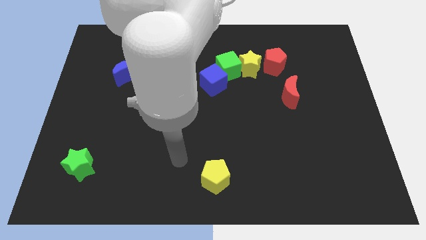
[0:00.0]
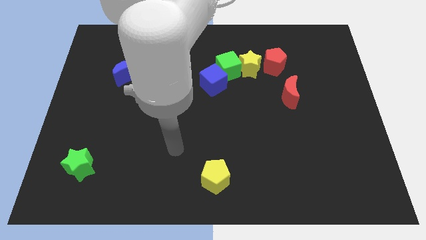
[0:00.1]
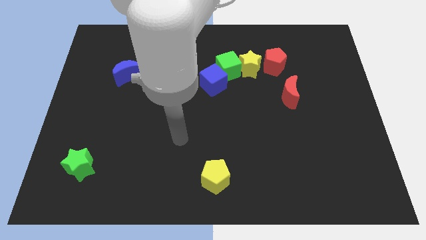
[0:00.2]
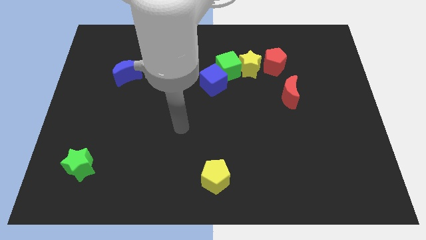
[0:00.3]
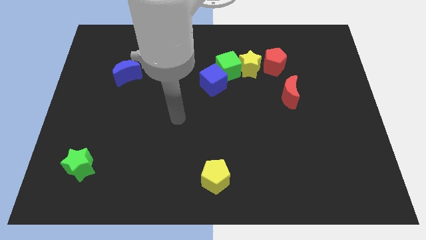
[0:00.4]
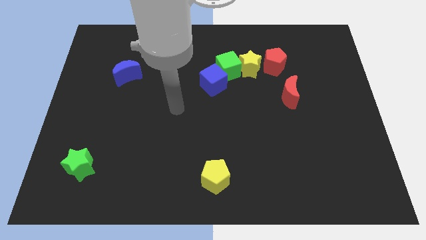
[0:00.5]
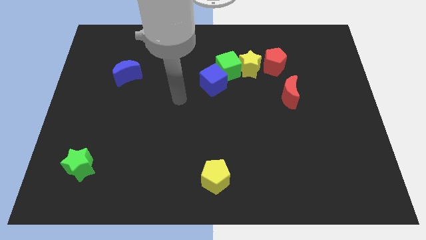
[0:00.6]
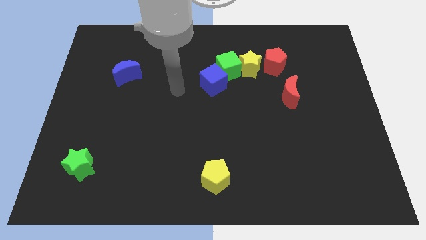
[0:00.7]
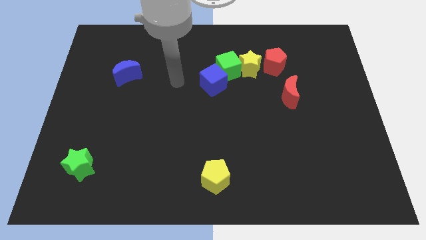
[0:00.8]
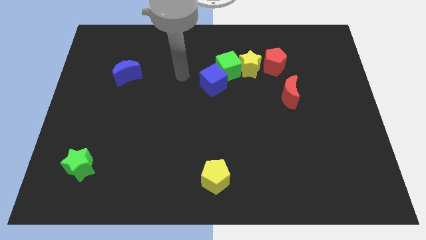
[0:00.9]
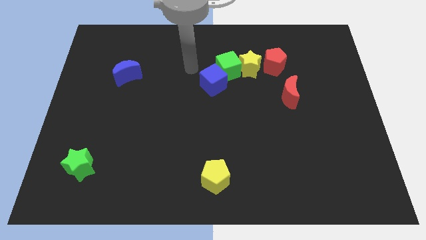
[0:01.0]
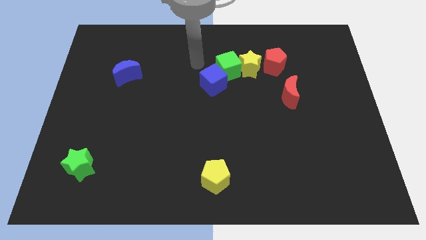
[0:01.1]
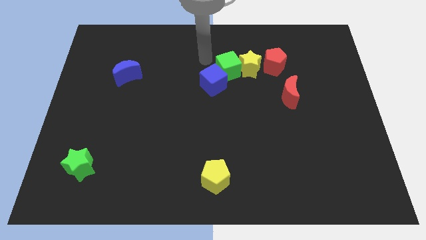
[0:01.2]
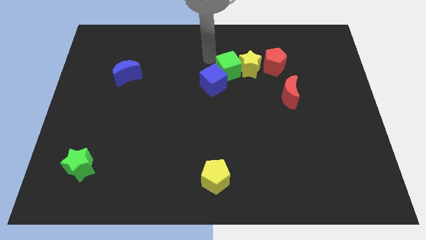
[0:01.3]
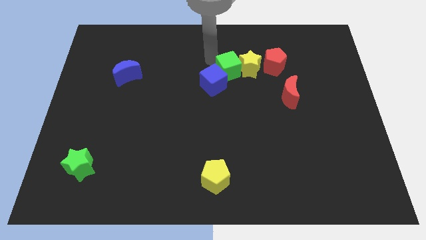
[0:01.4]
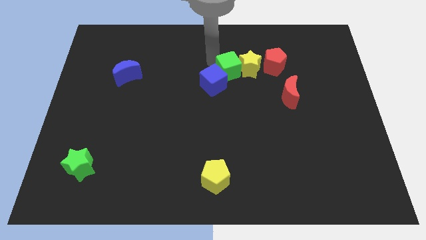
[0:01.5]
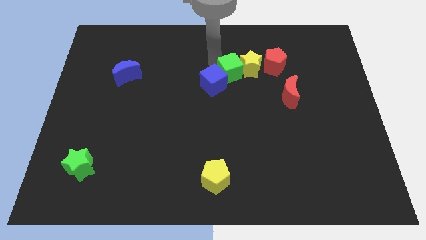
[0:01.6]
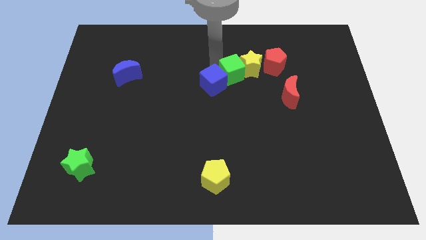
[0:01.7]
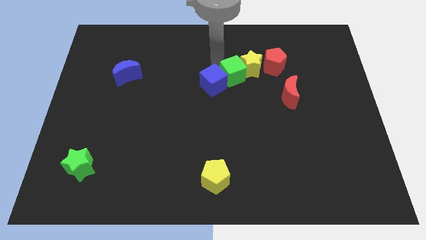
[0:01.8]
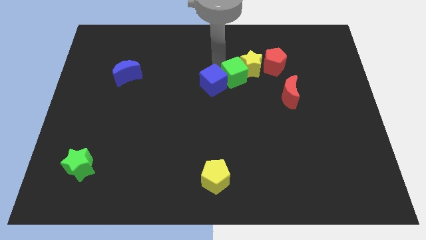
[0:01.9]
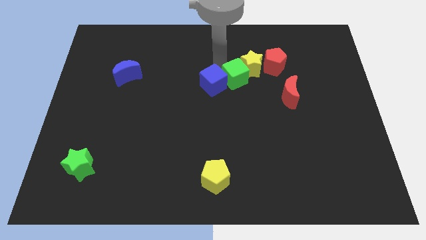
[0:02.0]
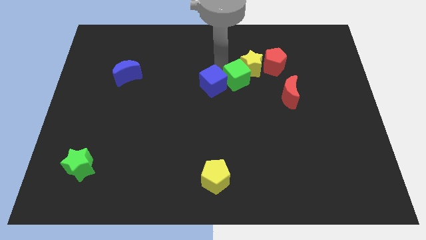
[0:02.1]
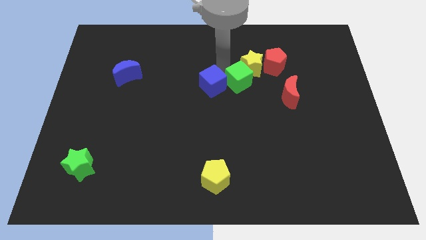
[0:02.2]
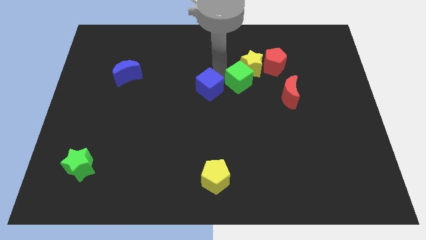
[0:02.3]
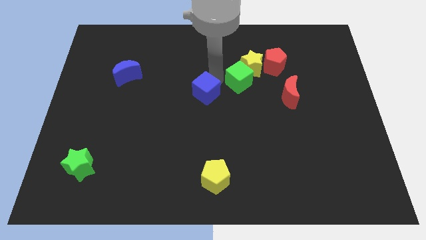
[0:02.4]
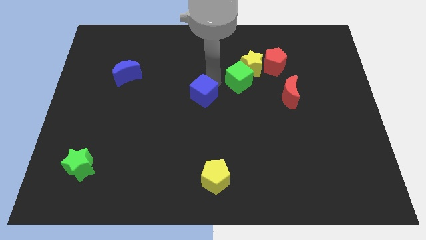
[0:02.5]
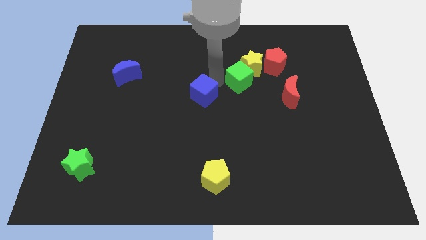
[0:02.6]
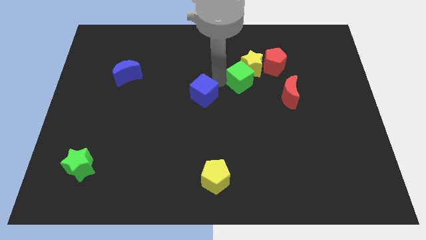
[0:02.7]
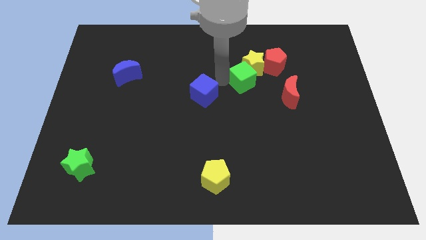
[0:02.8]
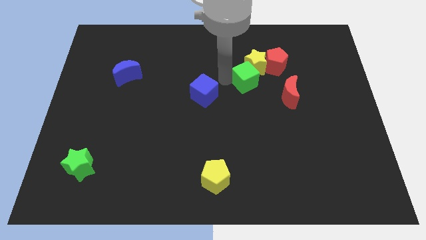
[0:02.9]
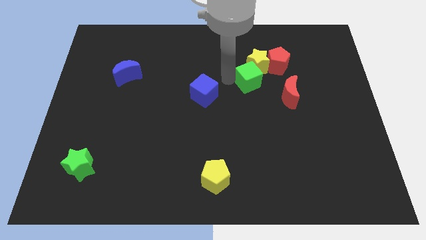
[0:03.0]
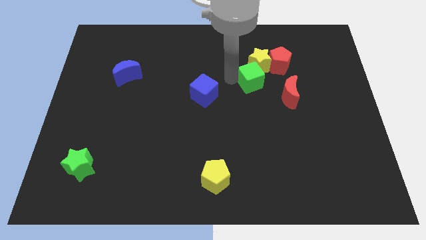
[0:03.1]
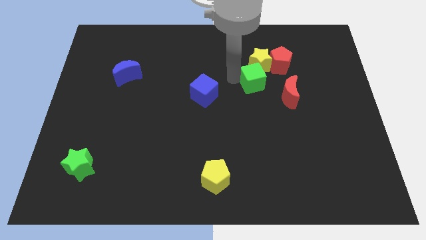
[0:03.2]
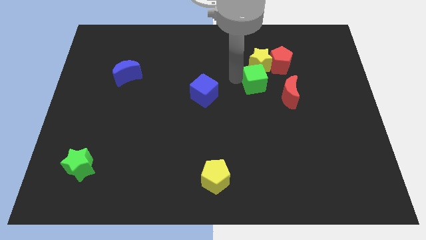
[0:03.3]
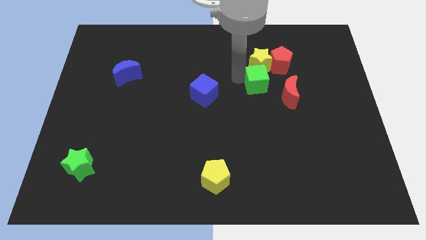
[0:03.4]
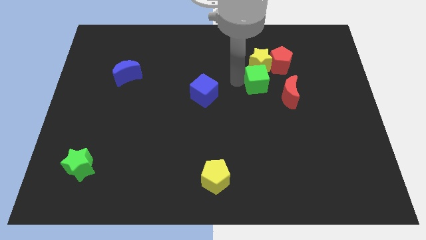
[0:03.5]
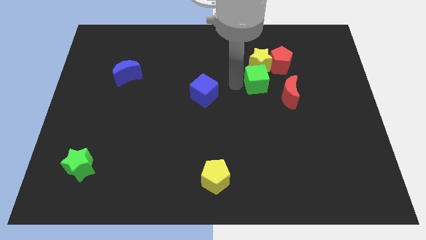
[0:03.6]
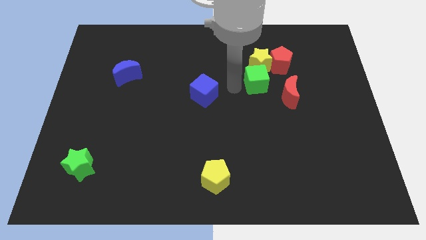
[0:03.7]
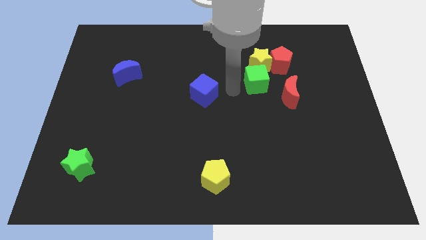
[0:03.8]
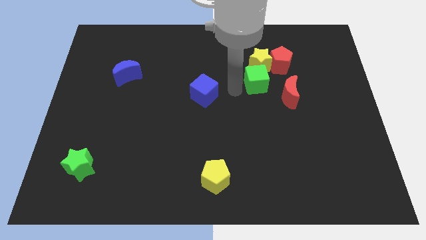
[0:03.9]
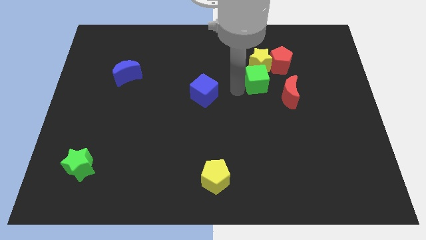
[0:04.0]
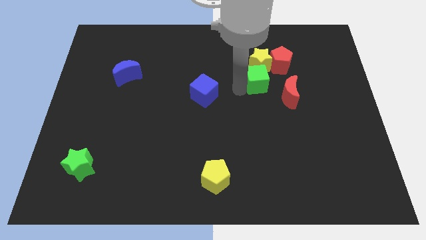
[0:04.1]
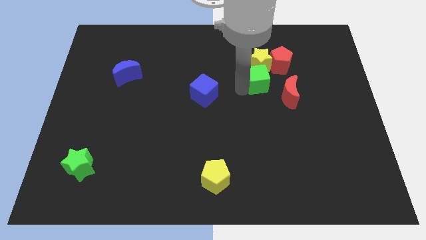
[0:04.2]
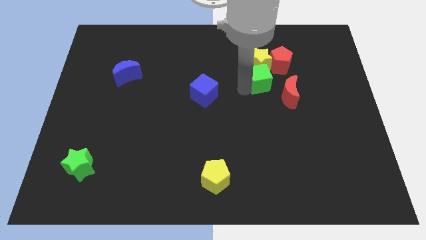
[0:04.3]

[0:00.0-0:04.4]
slightly move the green cube to the right

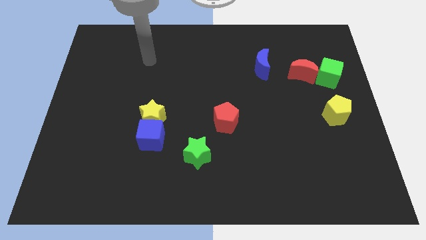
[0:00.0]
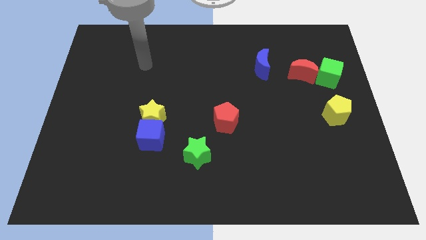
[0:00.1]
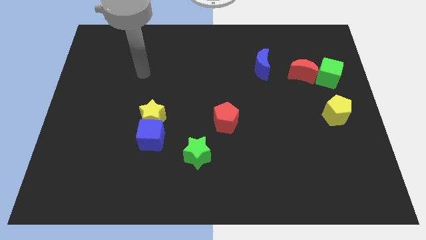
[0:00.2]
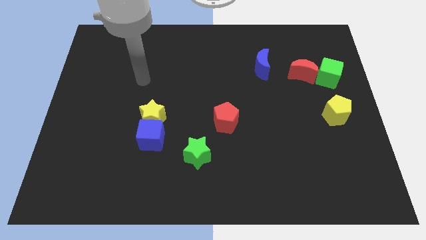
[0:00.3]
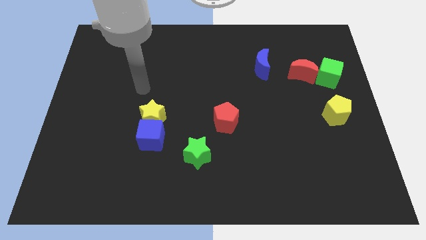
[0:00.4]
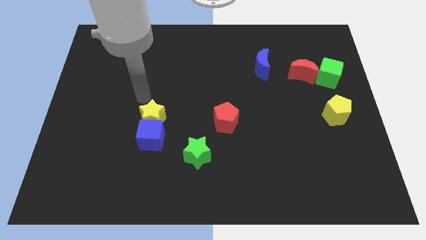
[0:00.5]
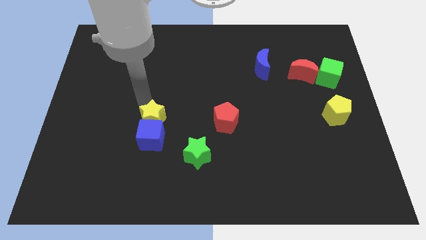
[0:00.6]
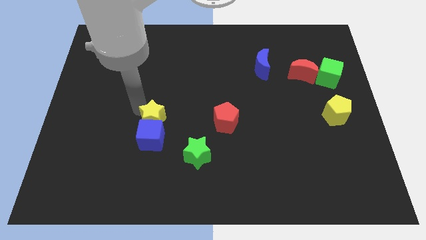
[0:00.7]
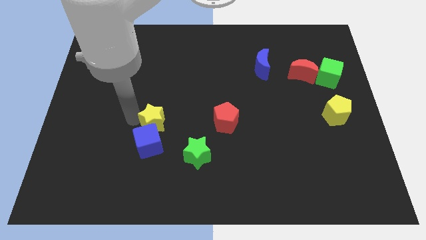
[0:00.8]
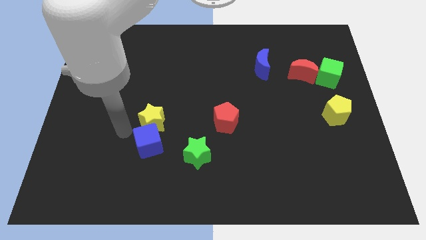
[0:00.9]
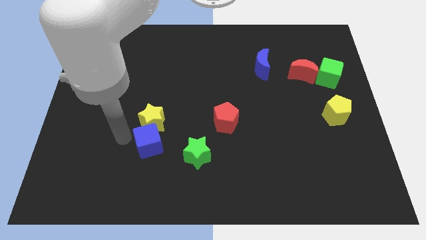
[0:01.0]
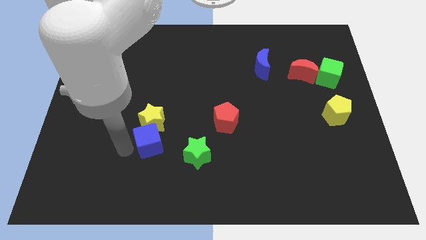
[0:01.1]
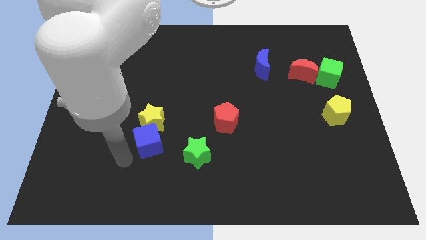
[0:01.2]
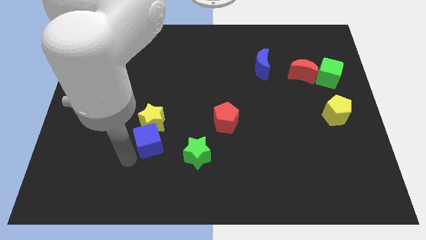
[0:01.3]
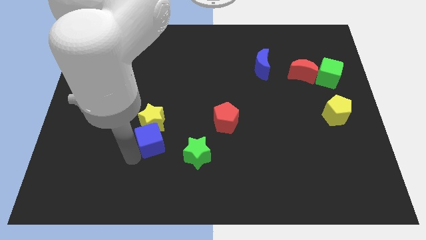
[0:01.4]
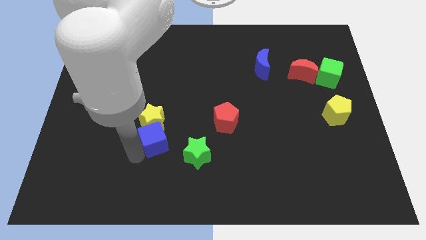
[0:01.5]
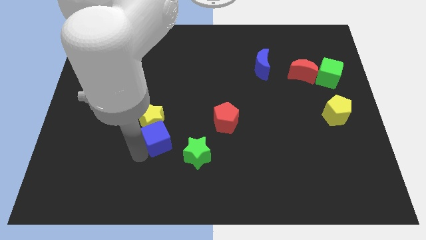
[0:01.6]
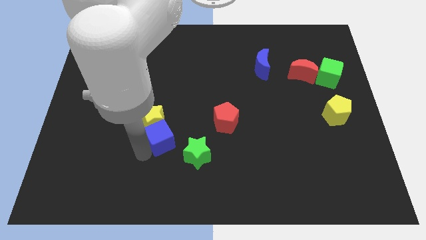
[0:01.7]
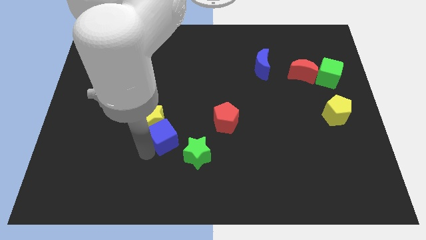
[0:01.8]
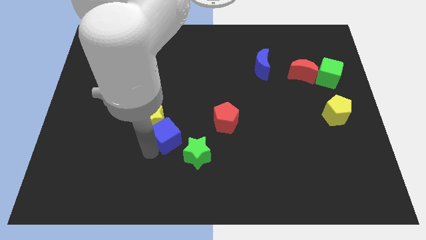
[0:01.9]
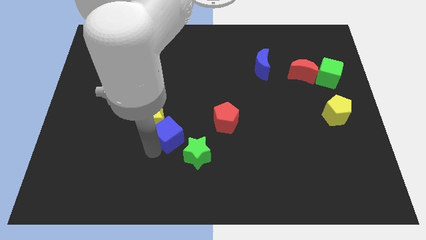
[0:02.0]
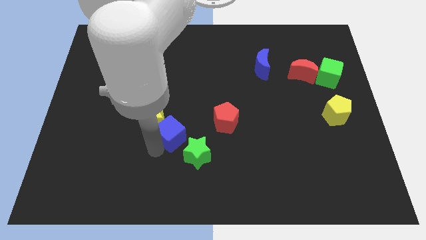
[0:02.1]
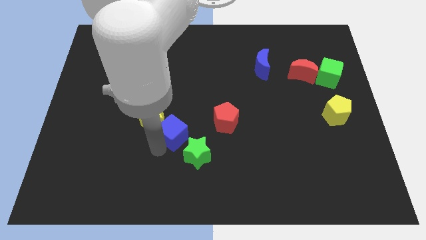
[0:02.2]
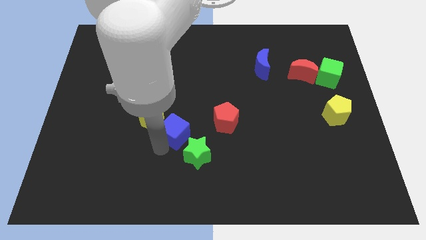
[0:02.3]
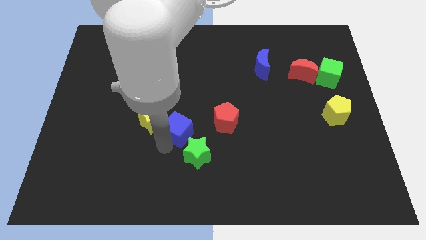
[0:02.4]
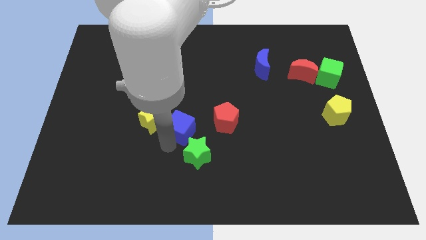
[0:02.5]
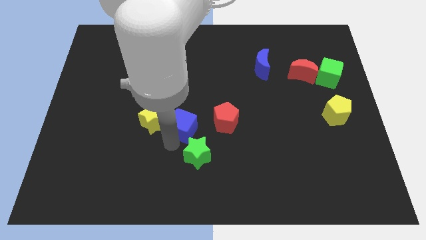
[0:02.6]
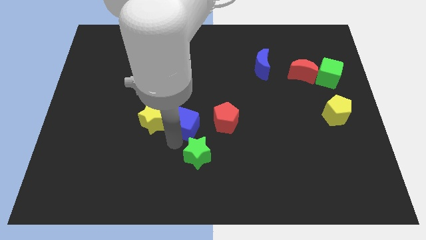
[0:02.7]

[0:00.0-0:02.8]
push the blue cube somewhat upwards and to the right

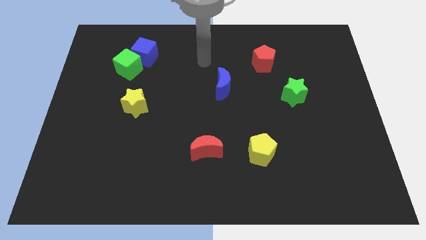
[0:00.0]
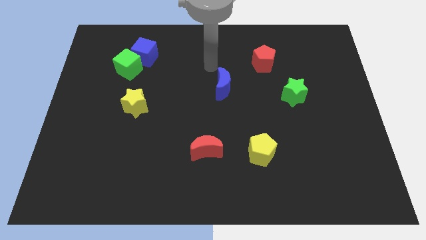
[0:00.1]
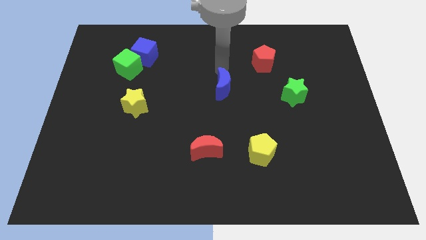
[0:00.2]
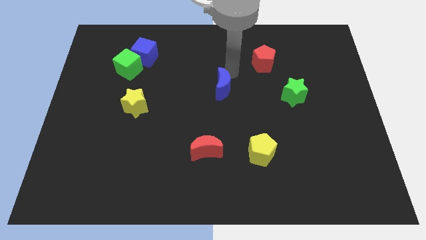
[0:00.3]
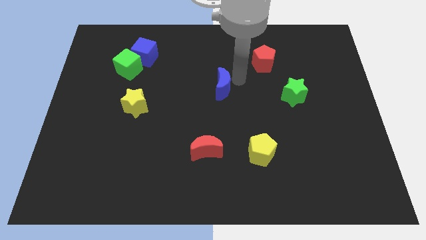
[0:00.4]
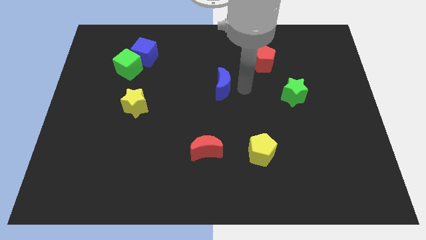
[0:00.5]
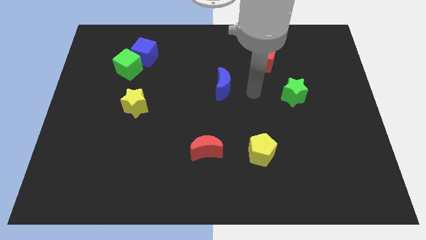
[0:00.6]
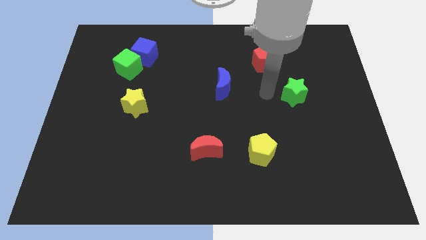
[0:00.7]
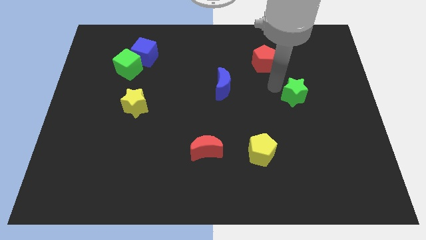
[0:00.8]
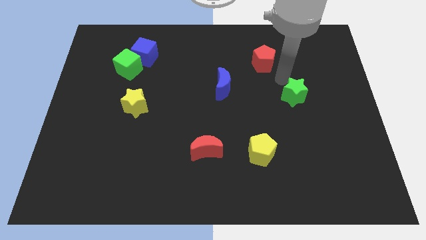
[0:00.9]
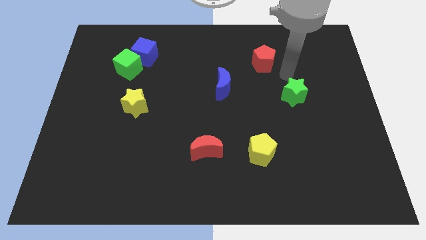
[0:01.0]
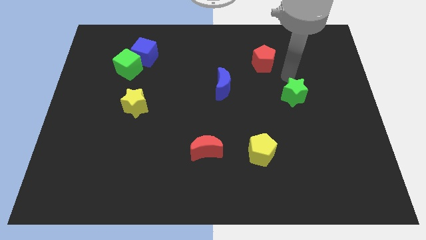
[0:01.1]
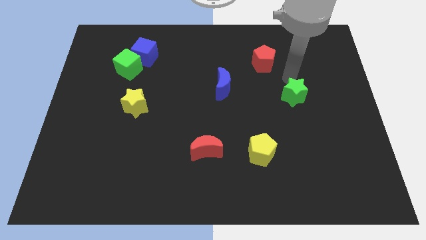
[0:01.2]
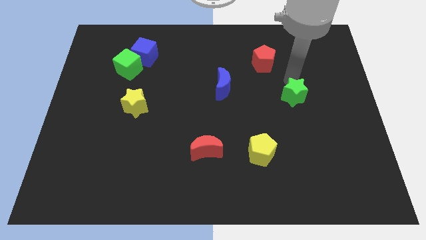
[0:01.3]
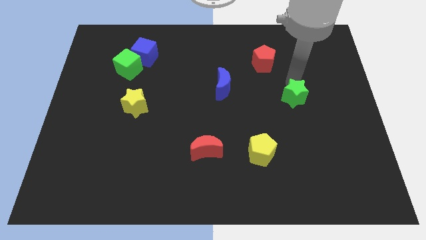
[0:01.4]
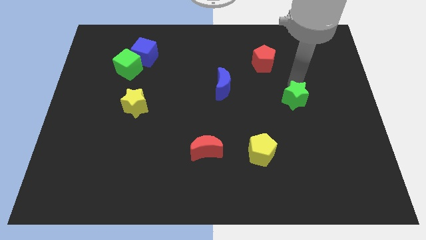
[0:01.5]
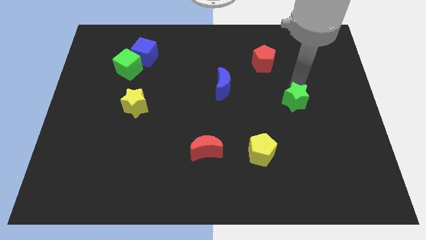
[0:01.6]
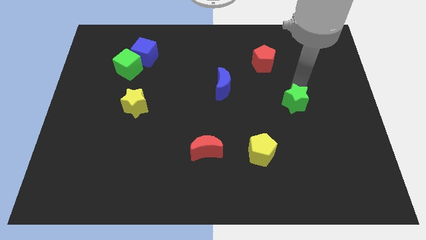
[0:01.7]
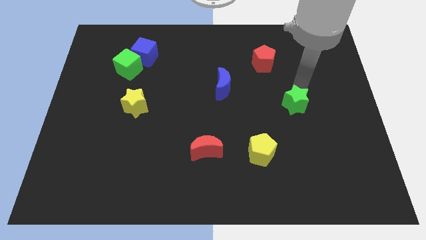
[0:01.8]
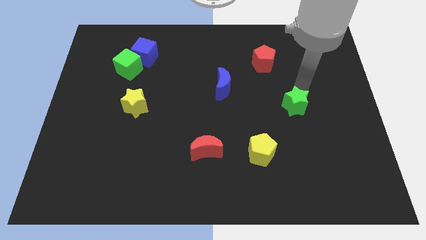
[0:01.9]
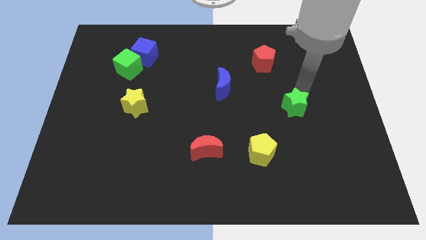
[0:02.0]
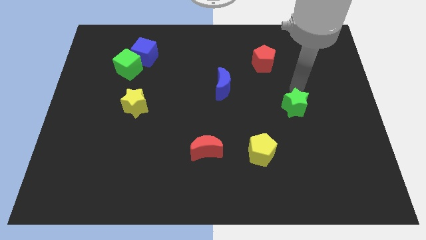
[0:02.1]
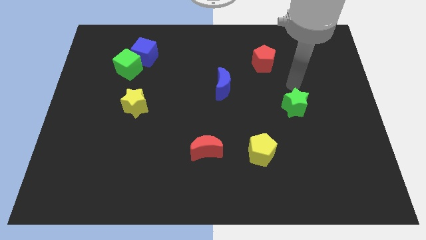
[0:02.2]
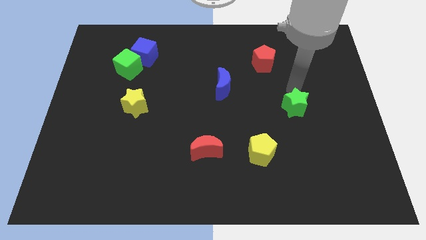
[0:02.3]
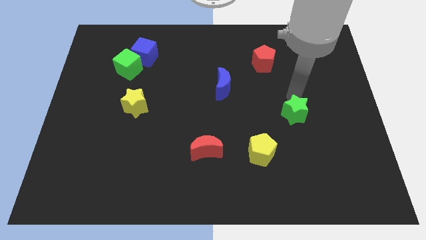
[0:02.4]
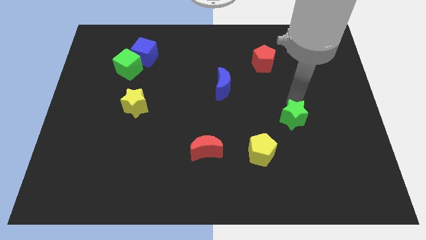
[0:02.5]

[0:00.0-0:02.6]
slightly push the green star downwards
